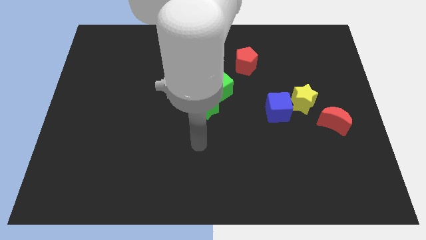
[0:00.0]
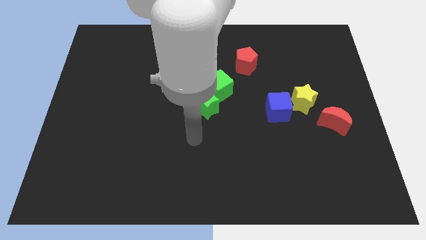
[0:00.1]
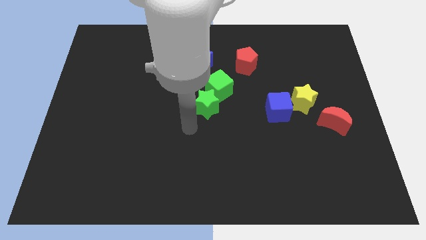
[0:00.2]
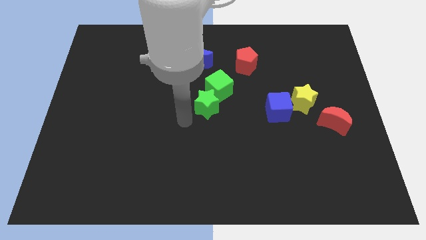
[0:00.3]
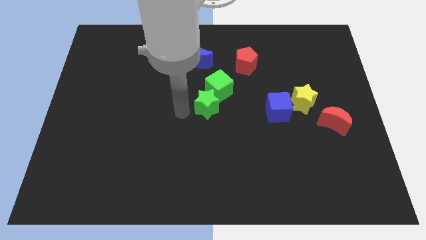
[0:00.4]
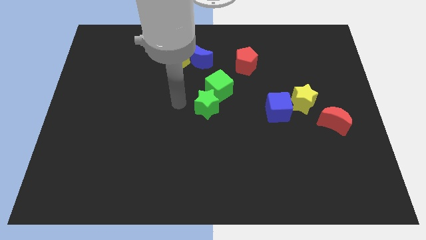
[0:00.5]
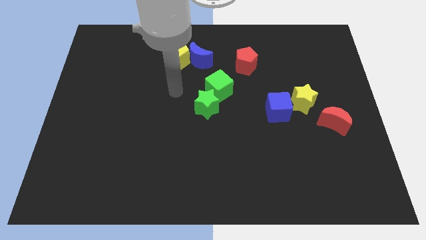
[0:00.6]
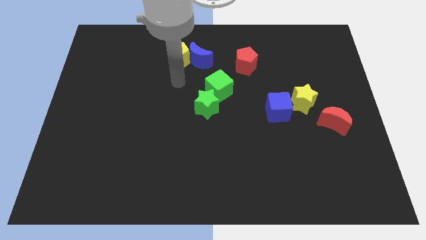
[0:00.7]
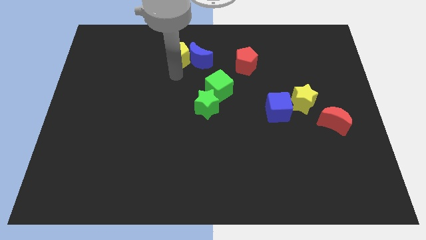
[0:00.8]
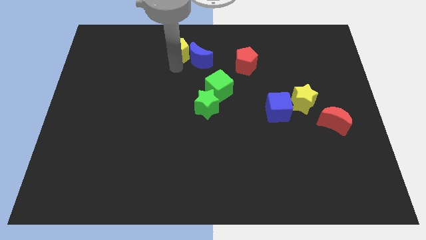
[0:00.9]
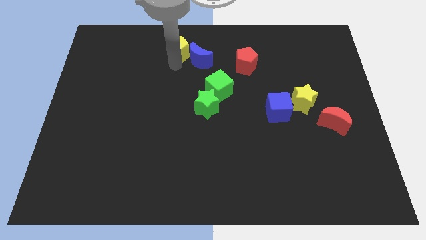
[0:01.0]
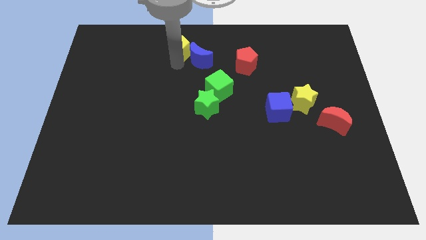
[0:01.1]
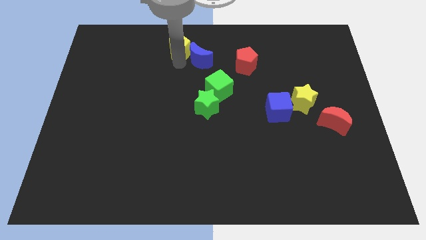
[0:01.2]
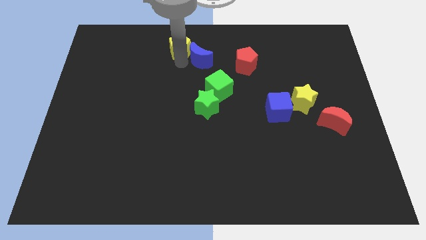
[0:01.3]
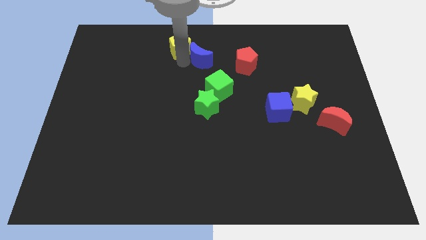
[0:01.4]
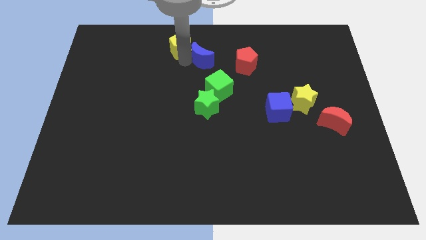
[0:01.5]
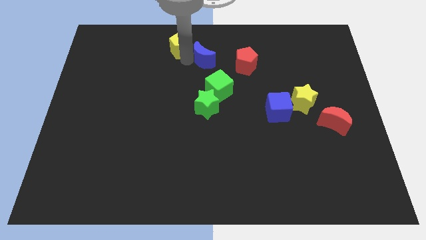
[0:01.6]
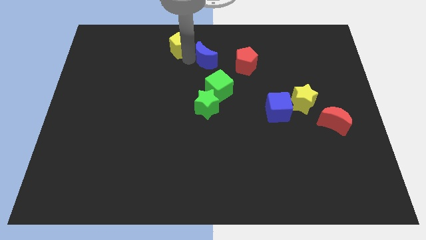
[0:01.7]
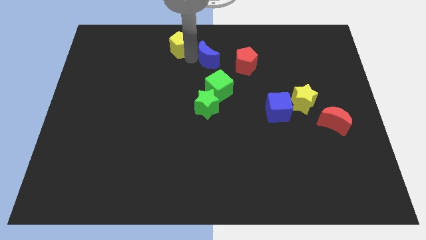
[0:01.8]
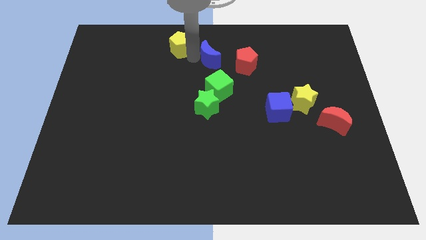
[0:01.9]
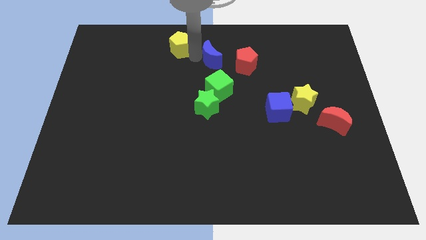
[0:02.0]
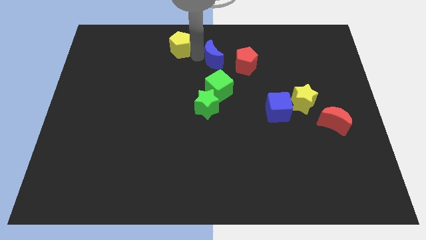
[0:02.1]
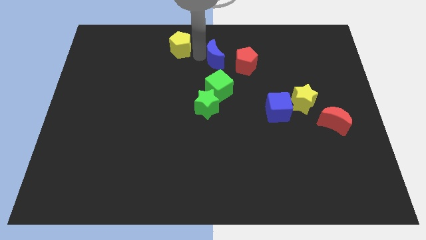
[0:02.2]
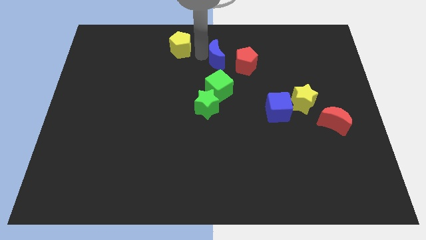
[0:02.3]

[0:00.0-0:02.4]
move the blue moon away from the yellow pentagon

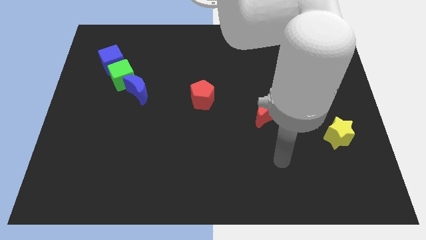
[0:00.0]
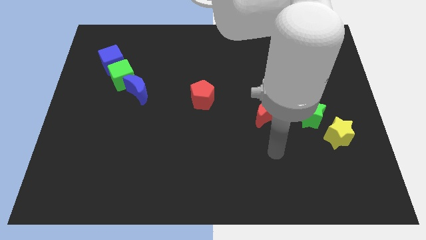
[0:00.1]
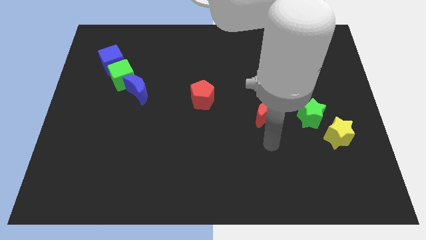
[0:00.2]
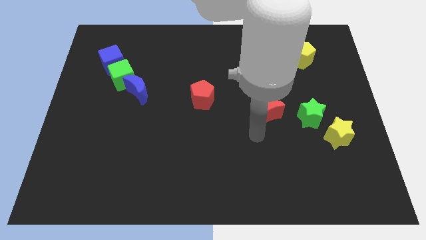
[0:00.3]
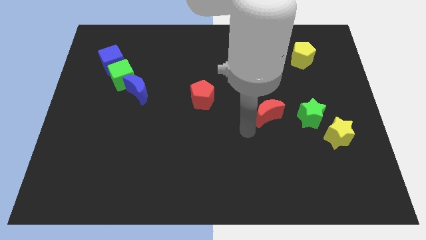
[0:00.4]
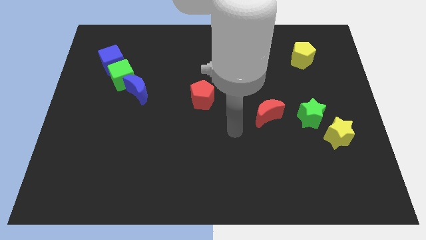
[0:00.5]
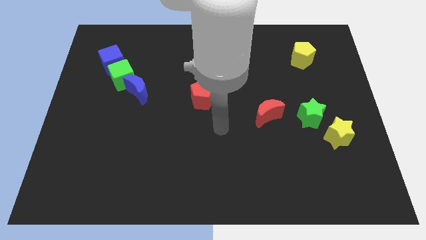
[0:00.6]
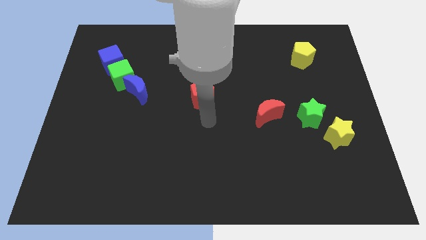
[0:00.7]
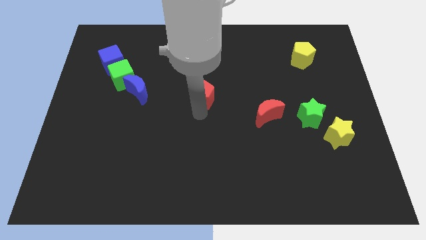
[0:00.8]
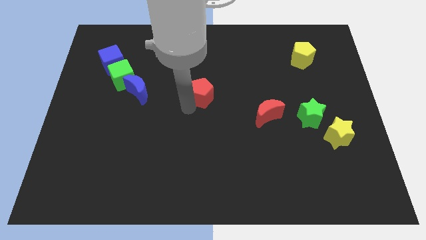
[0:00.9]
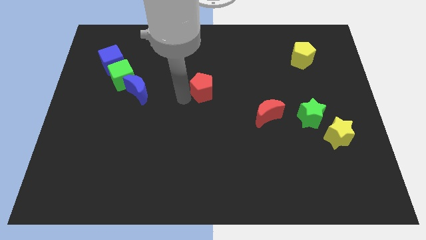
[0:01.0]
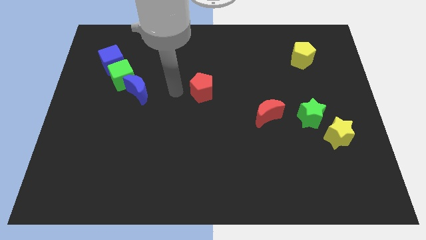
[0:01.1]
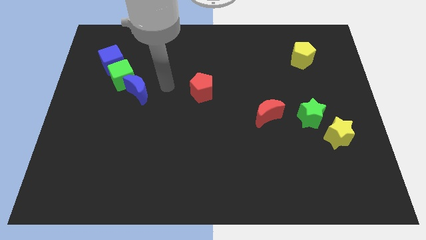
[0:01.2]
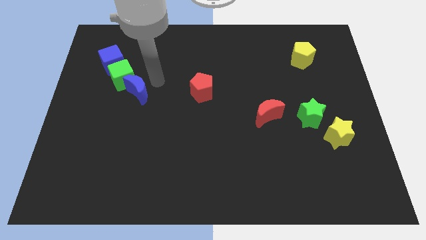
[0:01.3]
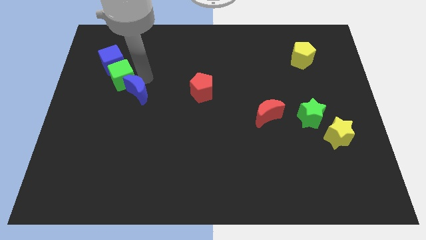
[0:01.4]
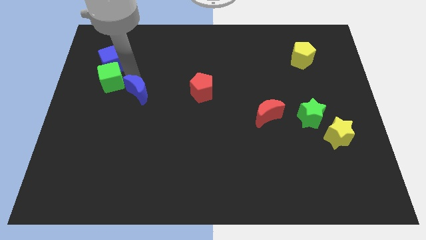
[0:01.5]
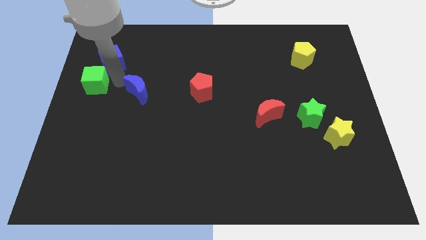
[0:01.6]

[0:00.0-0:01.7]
pull the blue moon apart from the green cube

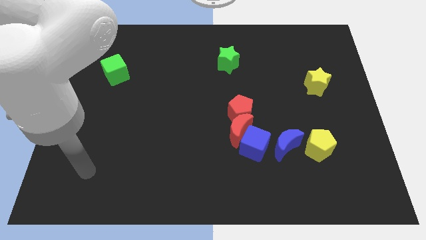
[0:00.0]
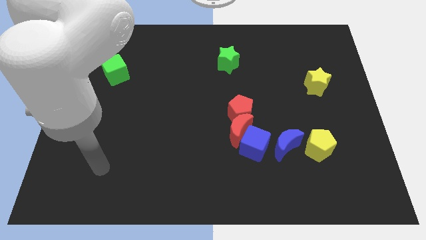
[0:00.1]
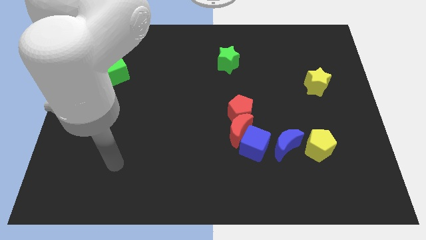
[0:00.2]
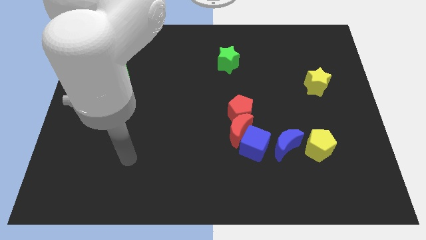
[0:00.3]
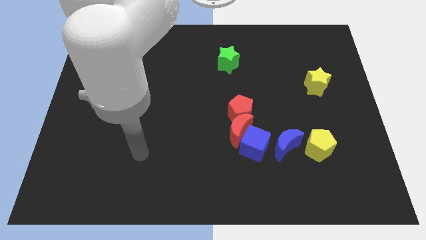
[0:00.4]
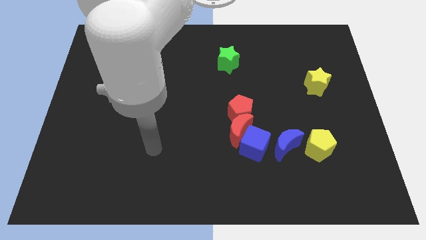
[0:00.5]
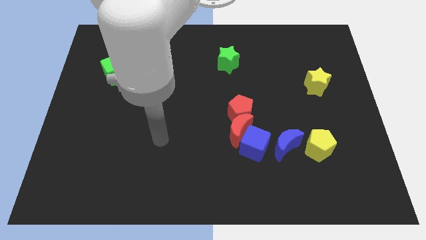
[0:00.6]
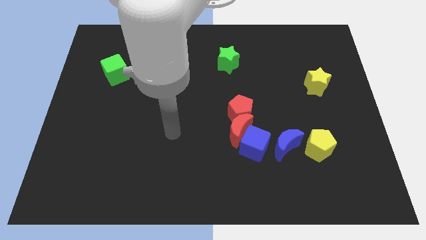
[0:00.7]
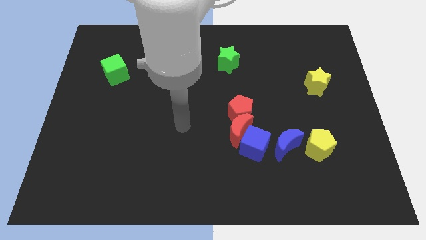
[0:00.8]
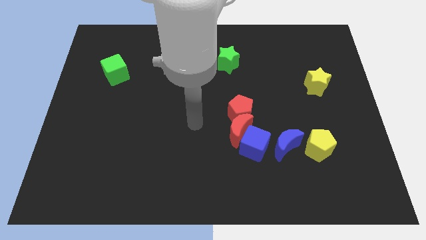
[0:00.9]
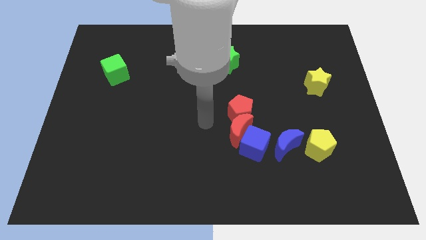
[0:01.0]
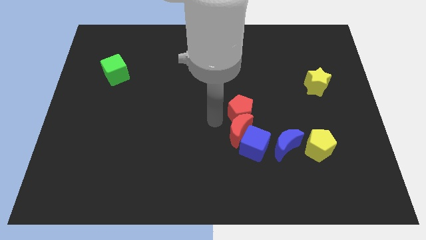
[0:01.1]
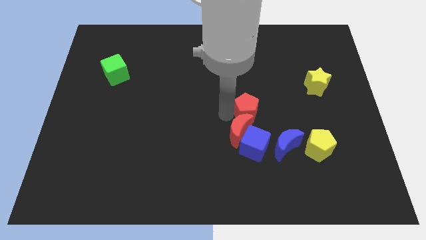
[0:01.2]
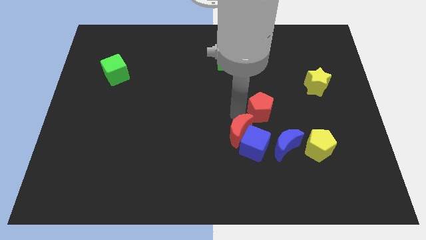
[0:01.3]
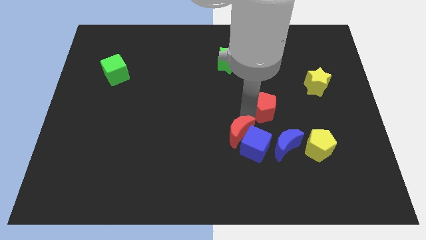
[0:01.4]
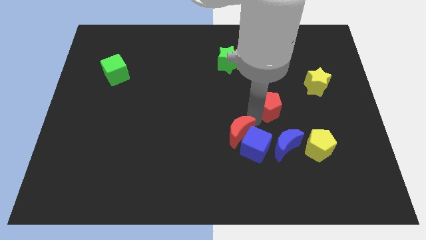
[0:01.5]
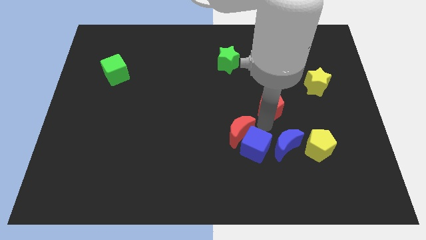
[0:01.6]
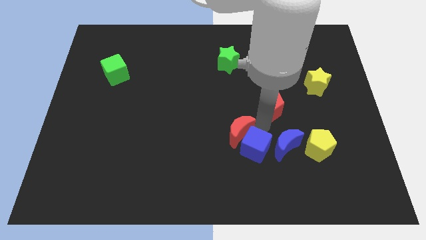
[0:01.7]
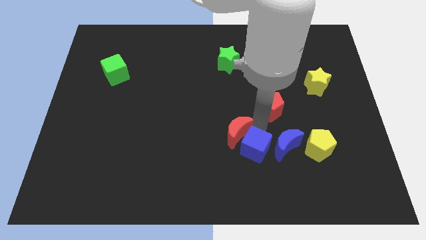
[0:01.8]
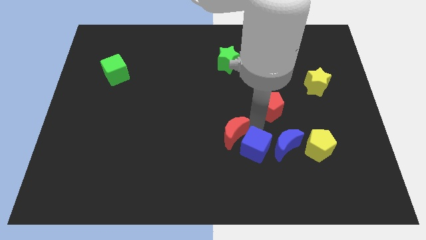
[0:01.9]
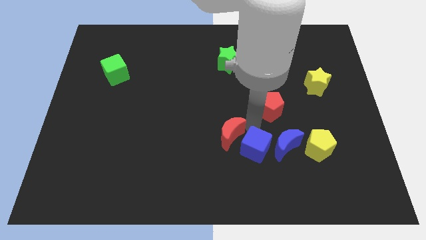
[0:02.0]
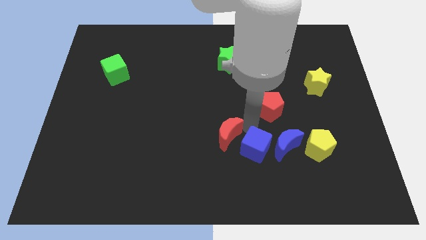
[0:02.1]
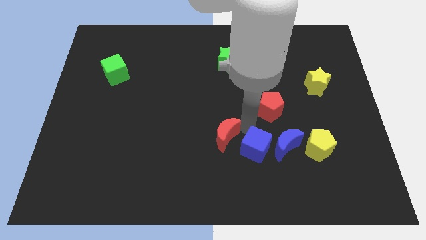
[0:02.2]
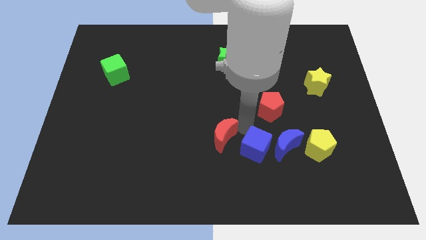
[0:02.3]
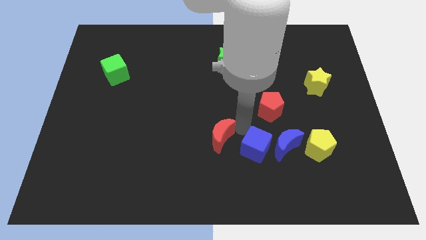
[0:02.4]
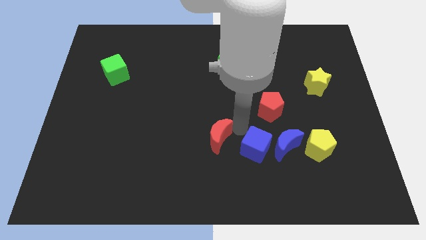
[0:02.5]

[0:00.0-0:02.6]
pull the red moon apart from the blue cube and red pentagon

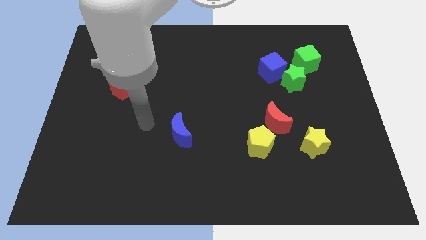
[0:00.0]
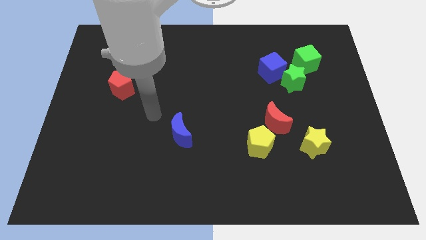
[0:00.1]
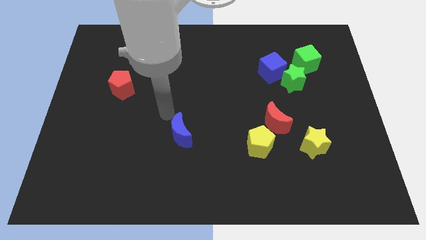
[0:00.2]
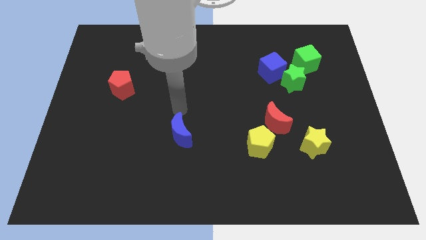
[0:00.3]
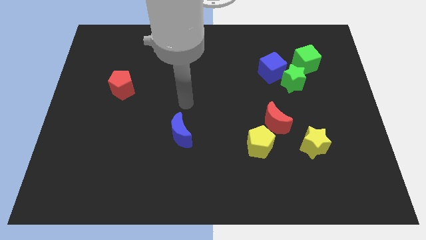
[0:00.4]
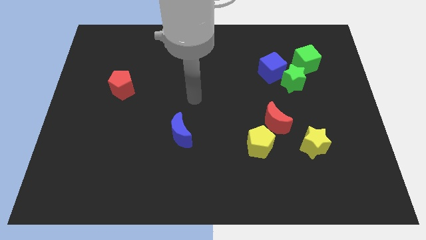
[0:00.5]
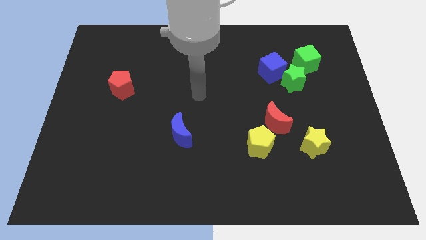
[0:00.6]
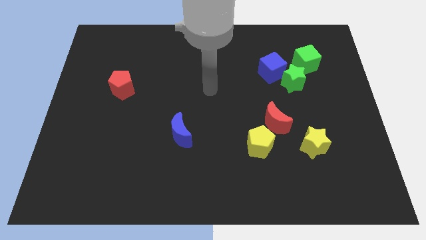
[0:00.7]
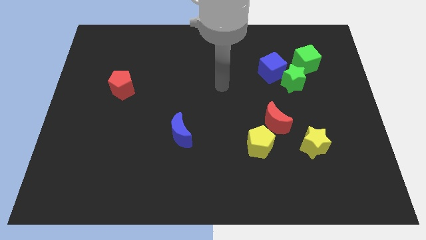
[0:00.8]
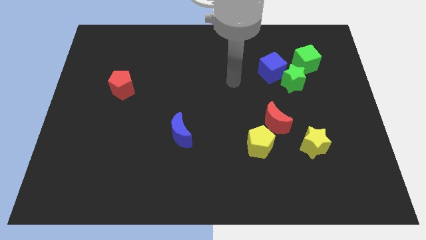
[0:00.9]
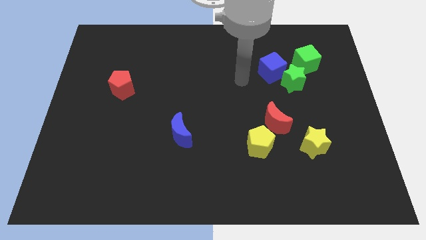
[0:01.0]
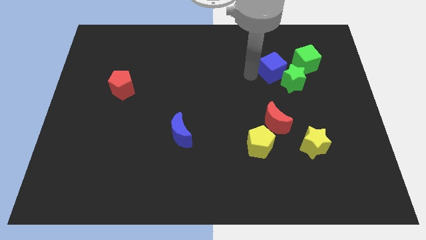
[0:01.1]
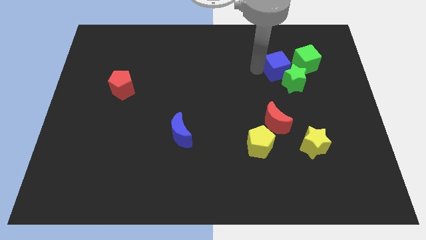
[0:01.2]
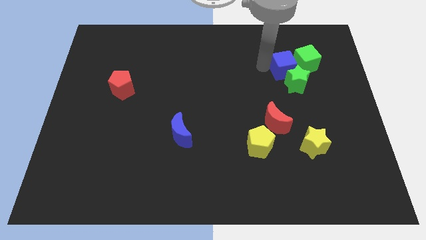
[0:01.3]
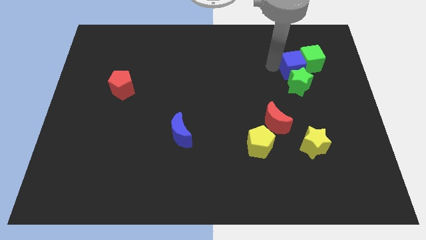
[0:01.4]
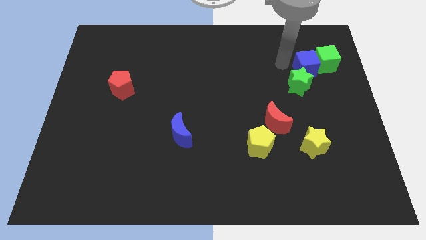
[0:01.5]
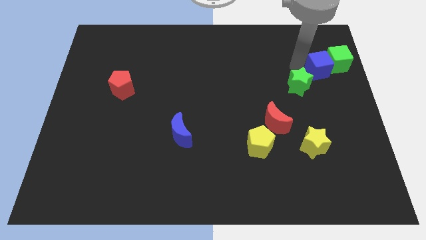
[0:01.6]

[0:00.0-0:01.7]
move the green star away from the blue cube and green cube

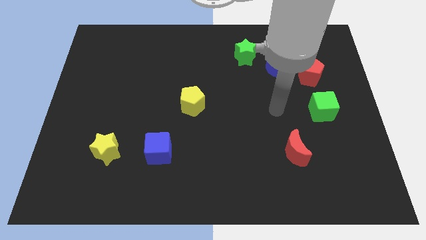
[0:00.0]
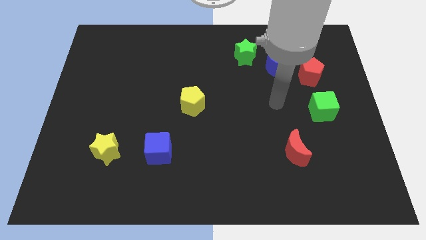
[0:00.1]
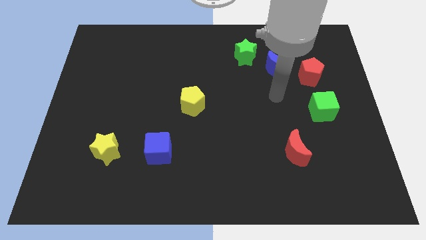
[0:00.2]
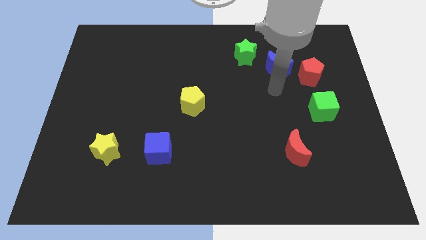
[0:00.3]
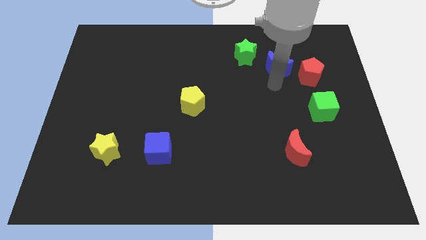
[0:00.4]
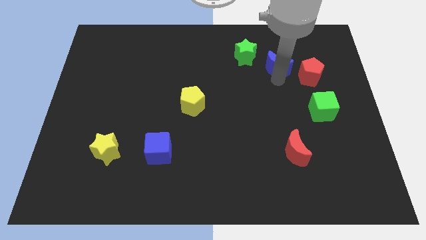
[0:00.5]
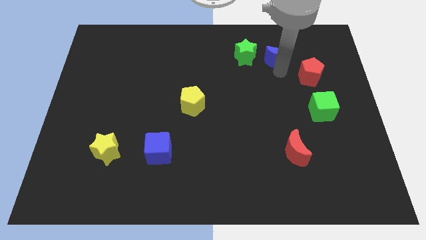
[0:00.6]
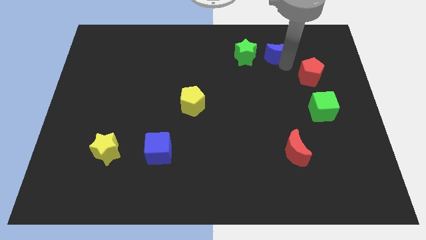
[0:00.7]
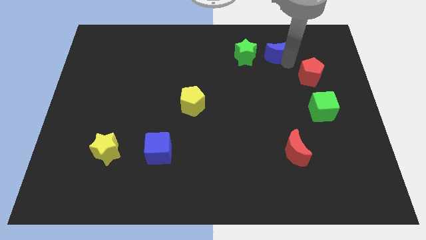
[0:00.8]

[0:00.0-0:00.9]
separate the red pentagon from the blue moon
